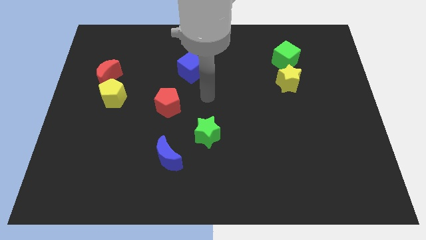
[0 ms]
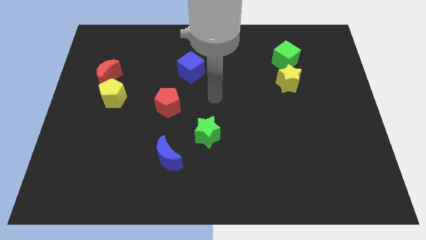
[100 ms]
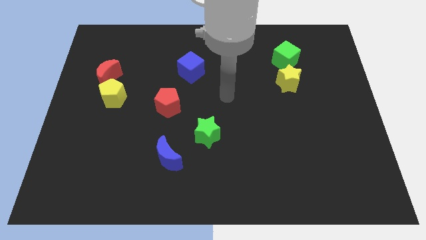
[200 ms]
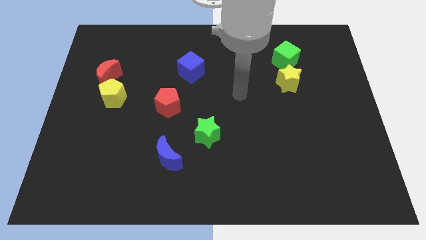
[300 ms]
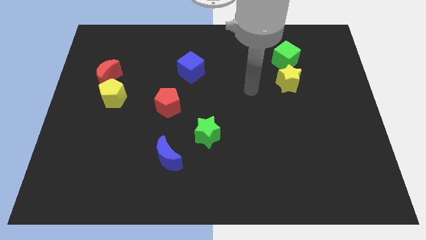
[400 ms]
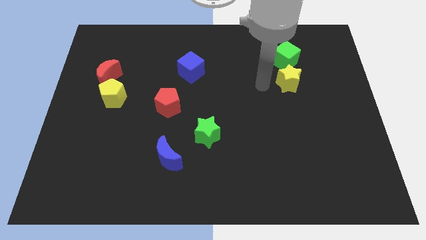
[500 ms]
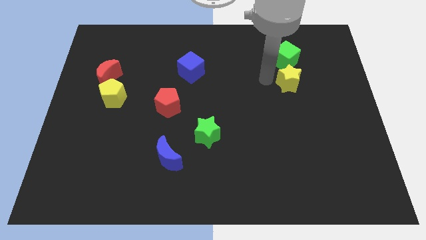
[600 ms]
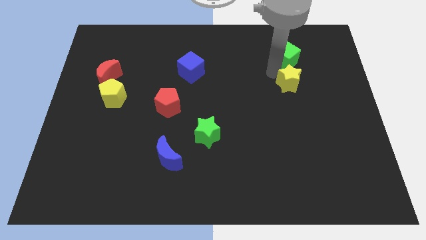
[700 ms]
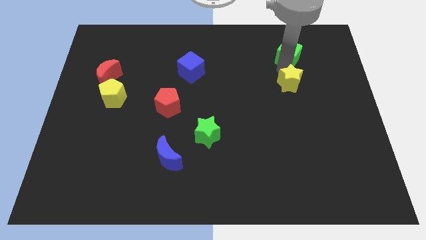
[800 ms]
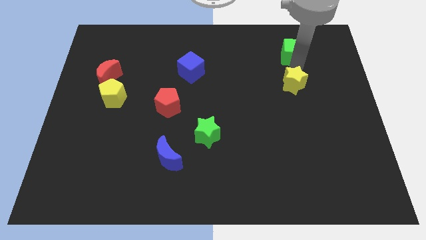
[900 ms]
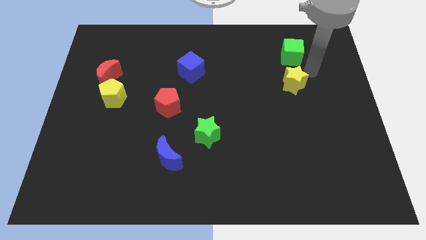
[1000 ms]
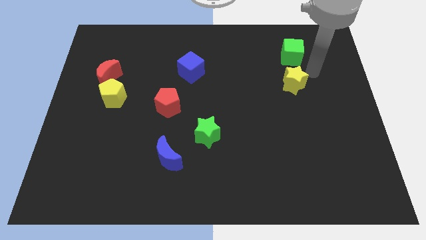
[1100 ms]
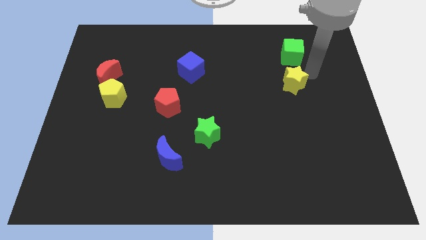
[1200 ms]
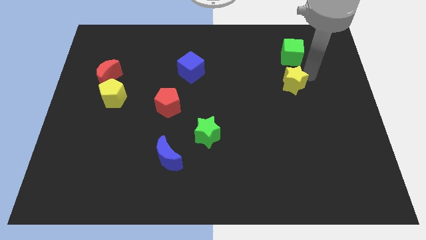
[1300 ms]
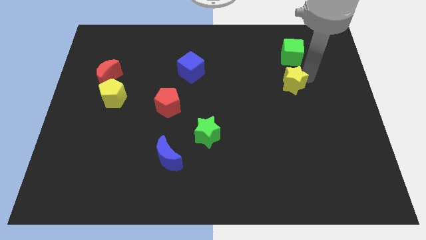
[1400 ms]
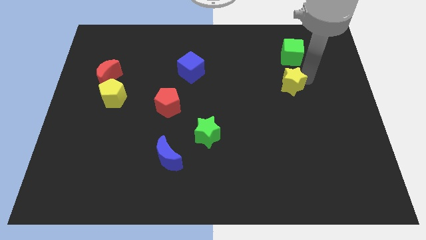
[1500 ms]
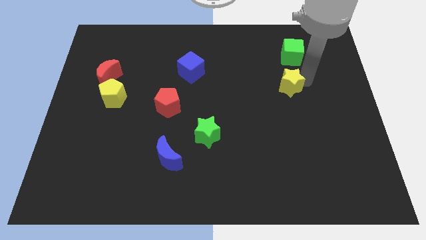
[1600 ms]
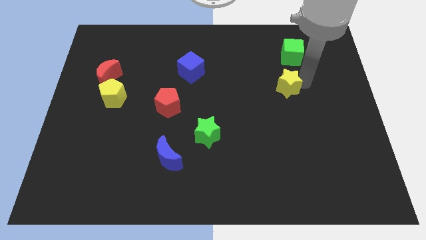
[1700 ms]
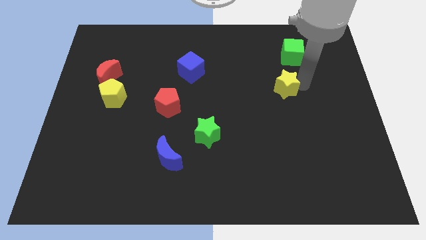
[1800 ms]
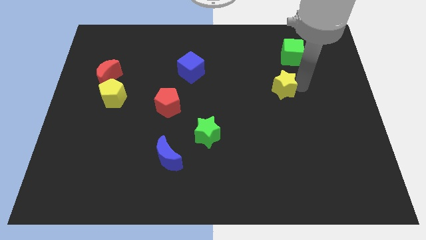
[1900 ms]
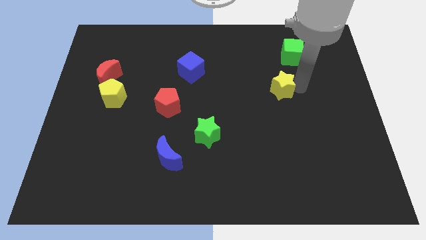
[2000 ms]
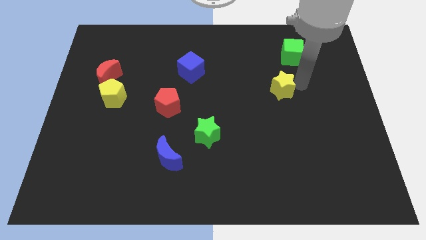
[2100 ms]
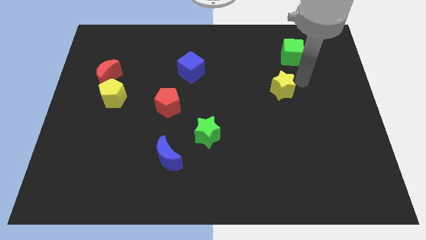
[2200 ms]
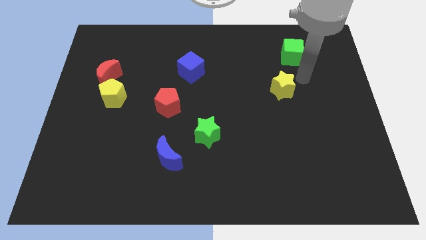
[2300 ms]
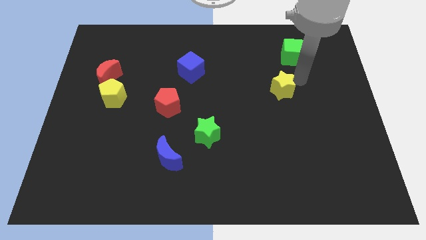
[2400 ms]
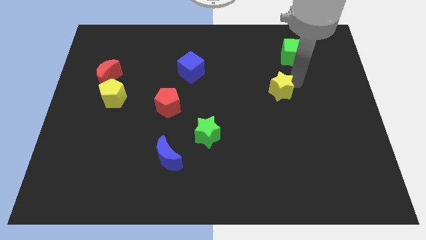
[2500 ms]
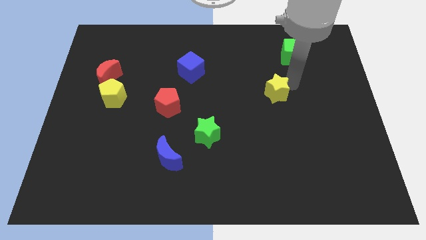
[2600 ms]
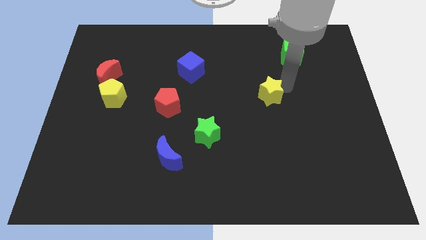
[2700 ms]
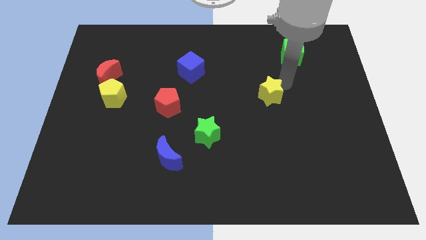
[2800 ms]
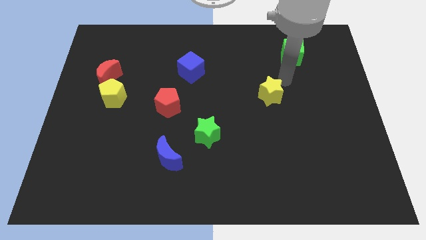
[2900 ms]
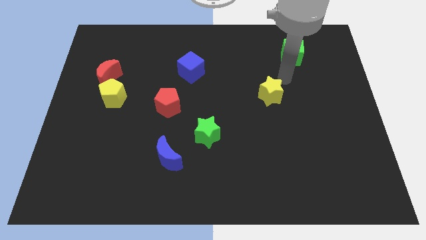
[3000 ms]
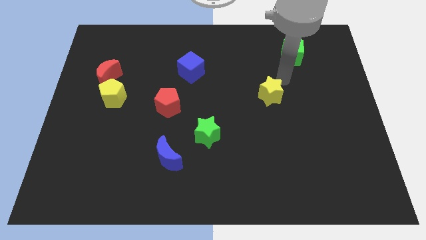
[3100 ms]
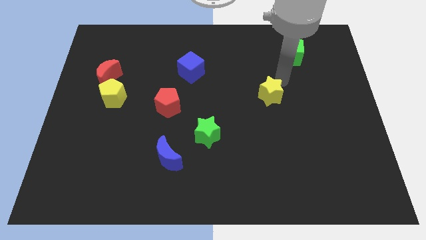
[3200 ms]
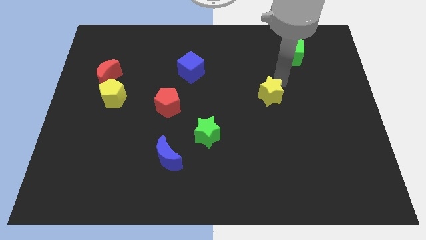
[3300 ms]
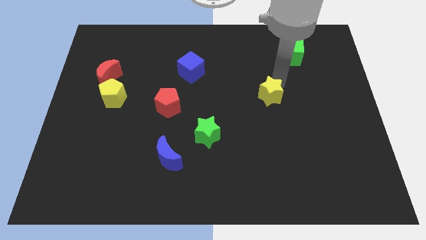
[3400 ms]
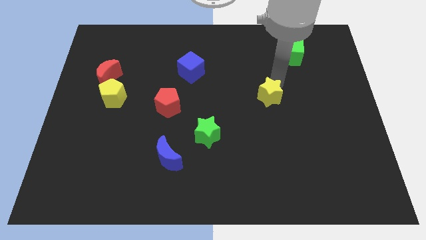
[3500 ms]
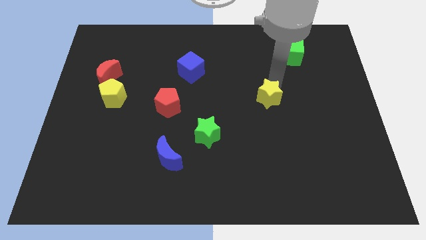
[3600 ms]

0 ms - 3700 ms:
move the yellow star slightly down and left

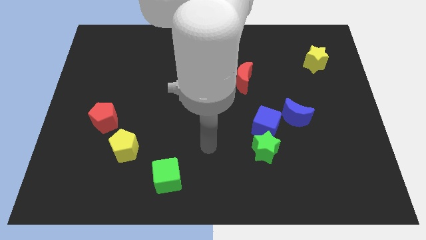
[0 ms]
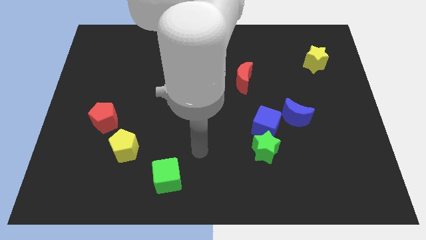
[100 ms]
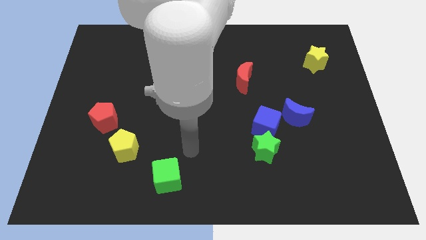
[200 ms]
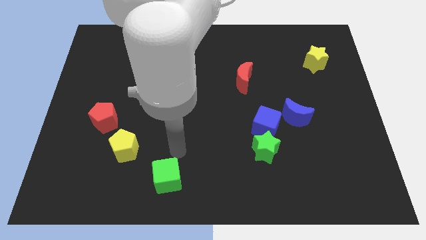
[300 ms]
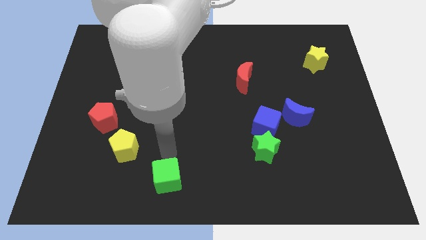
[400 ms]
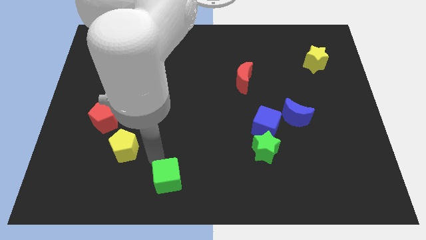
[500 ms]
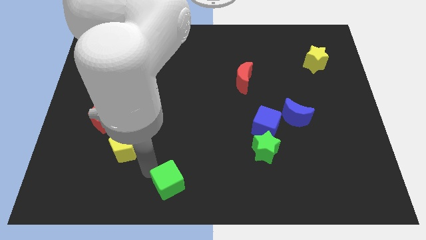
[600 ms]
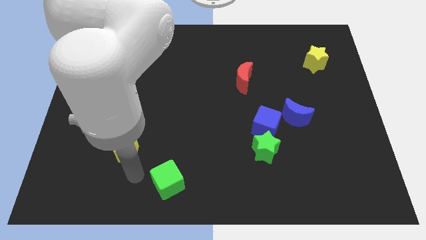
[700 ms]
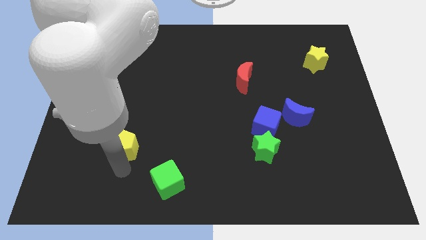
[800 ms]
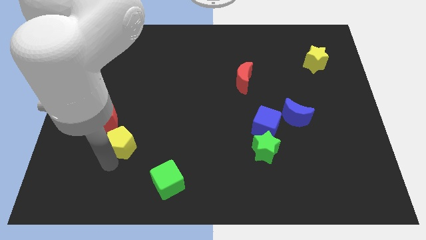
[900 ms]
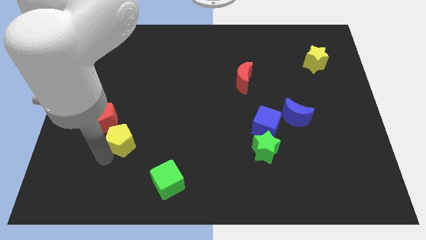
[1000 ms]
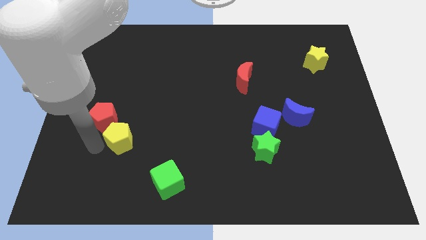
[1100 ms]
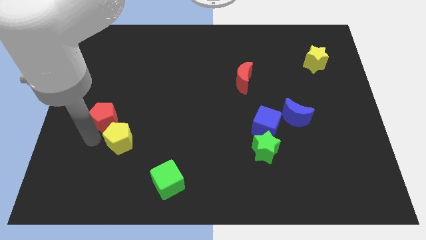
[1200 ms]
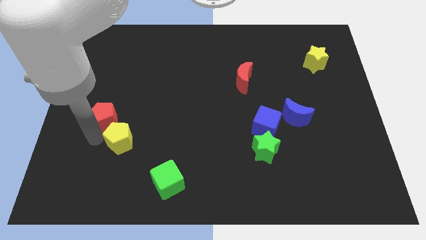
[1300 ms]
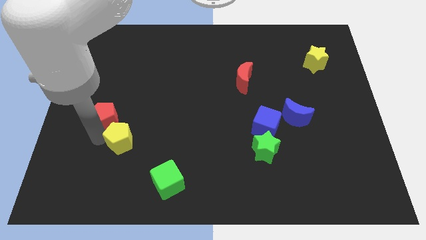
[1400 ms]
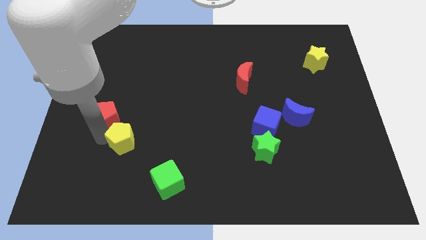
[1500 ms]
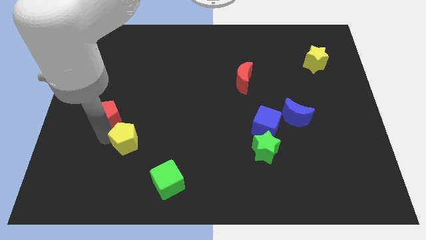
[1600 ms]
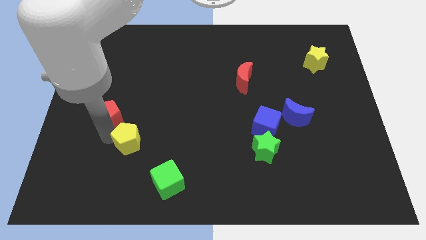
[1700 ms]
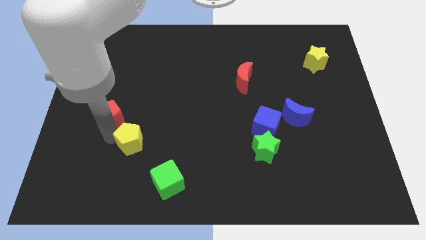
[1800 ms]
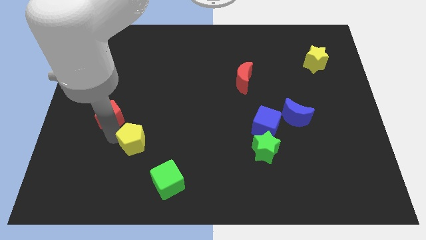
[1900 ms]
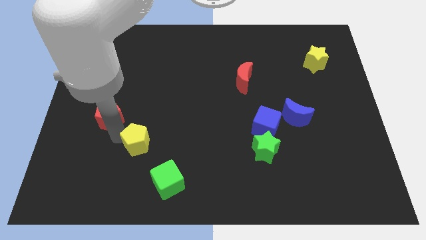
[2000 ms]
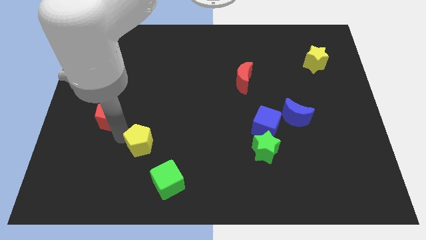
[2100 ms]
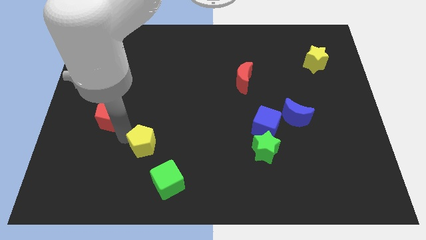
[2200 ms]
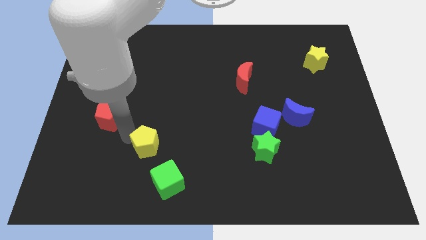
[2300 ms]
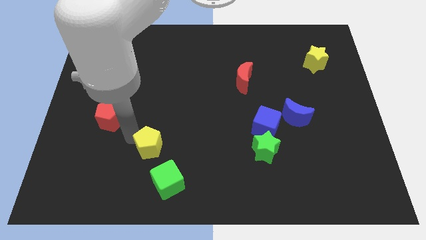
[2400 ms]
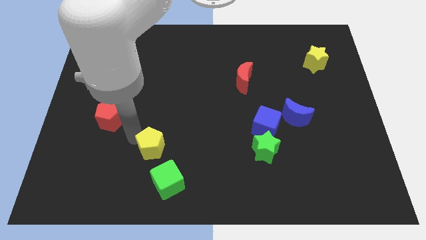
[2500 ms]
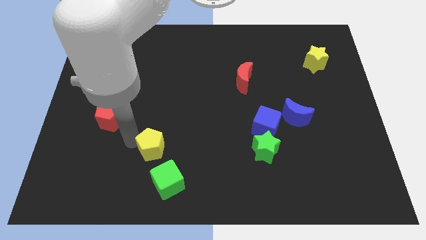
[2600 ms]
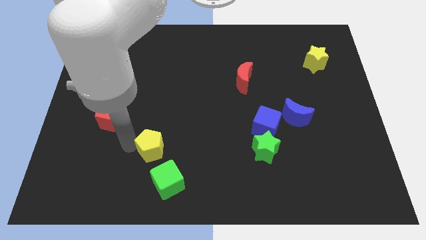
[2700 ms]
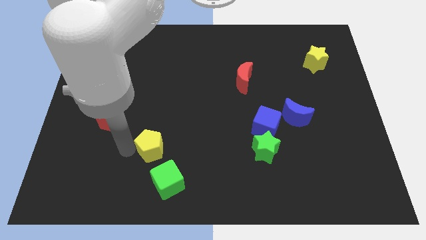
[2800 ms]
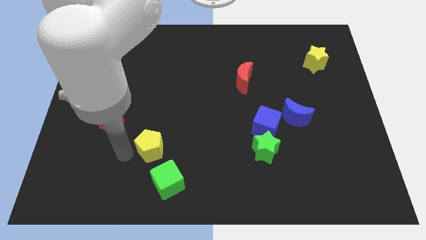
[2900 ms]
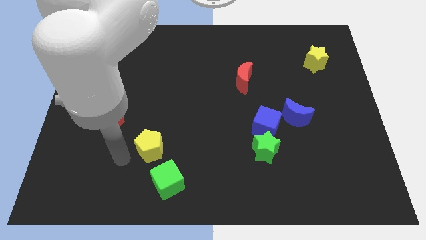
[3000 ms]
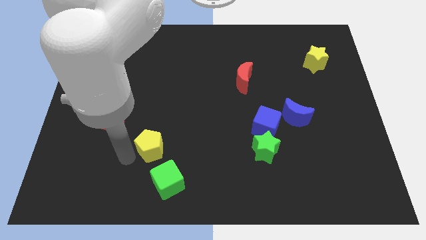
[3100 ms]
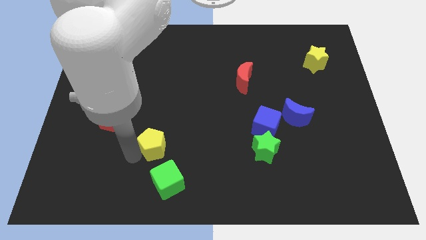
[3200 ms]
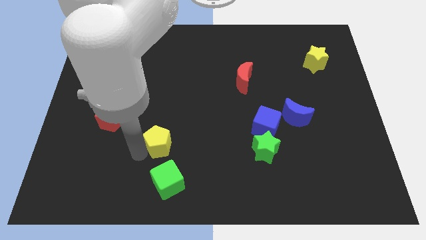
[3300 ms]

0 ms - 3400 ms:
slightly slide the yellow pentagon to the right

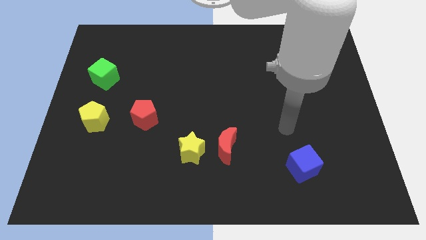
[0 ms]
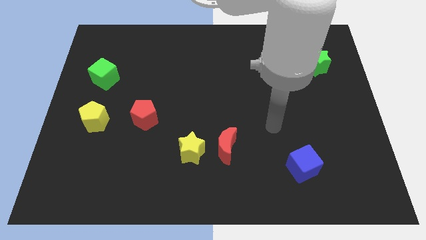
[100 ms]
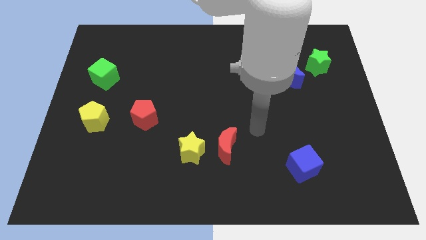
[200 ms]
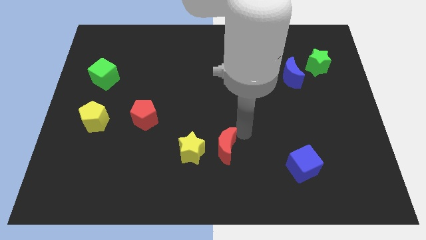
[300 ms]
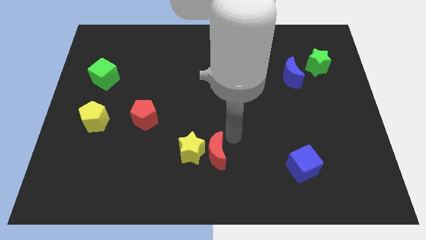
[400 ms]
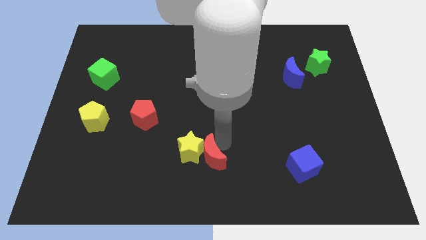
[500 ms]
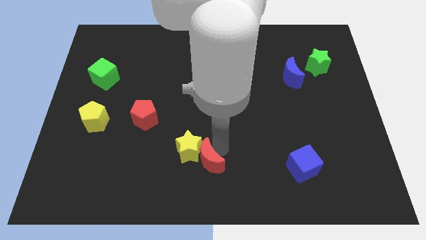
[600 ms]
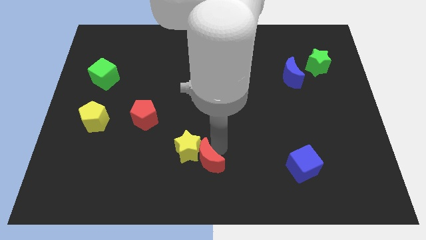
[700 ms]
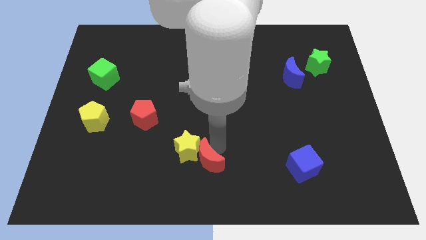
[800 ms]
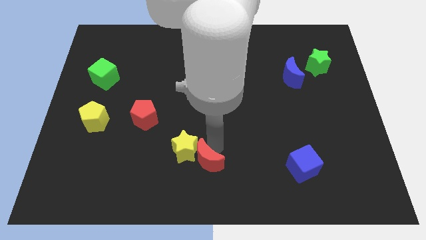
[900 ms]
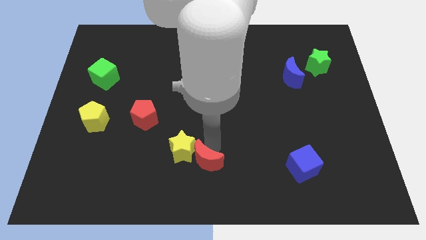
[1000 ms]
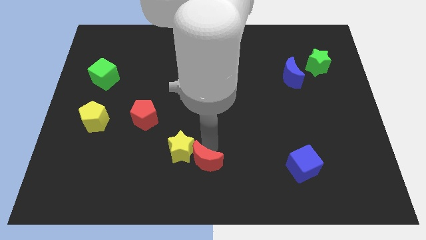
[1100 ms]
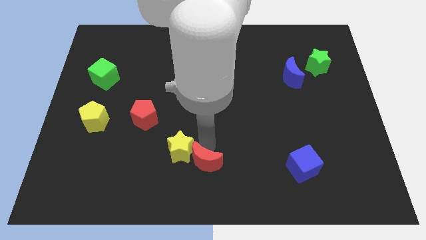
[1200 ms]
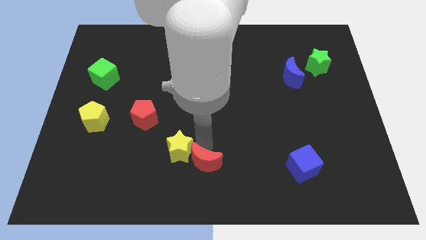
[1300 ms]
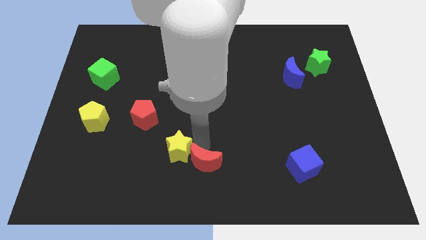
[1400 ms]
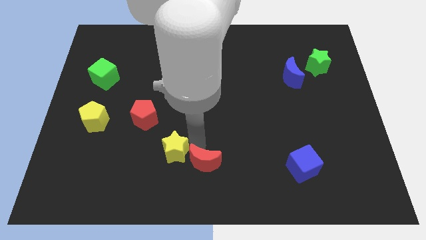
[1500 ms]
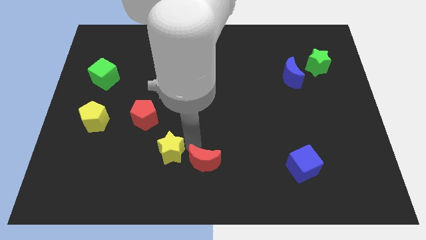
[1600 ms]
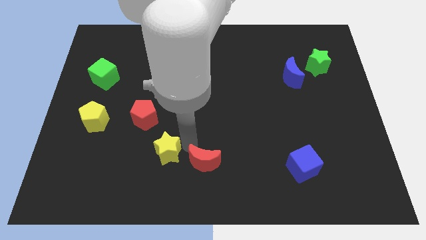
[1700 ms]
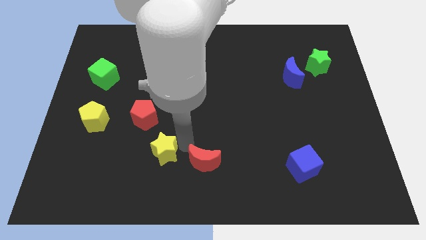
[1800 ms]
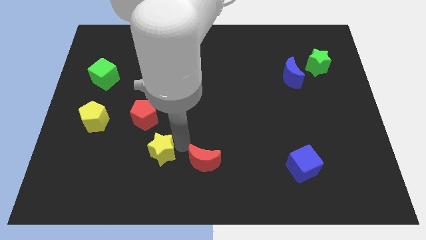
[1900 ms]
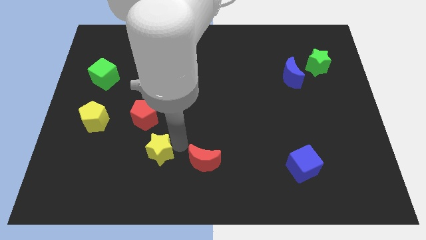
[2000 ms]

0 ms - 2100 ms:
push the yellow star left slightly
